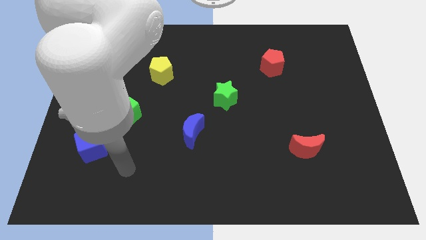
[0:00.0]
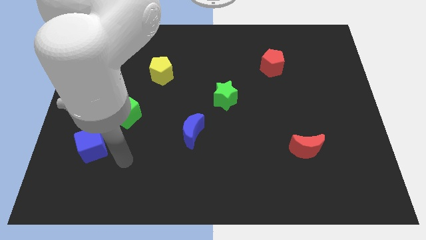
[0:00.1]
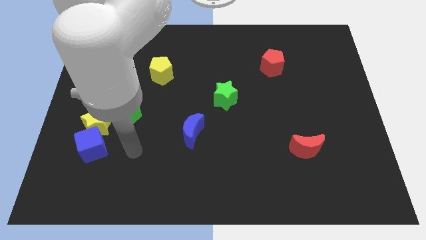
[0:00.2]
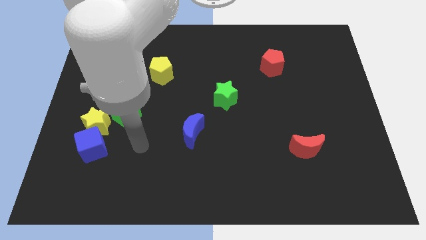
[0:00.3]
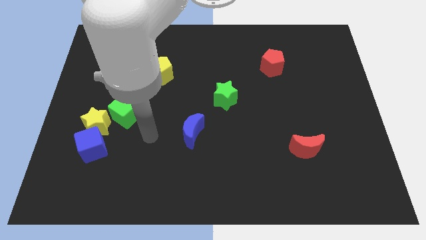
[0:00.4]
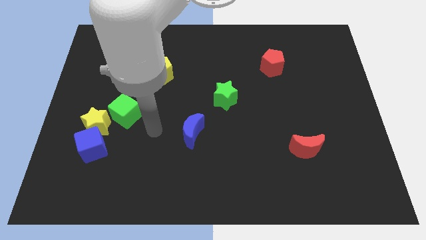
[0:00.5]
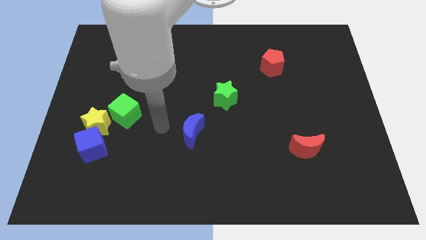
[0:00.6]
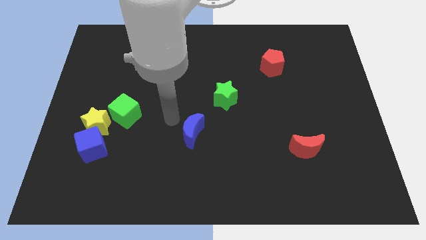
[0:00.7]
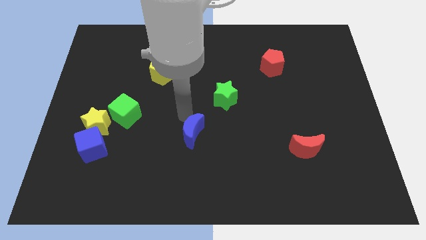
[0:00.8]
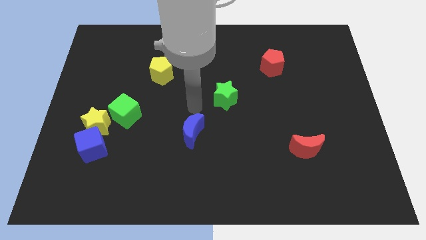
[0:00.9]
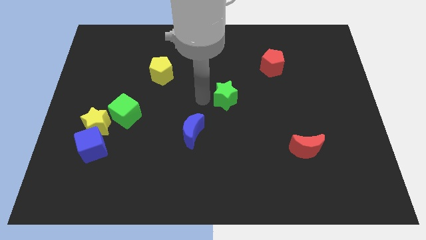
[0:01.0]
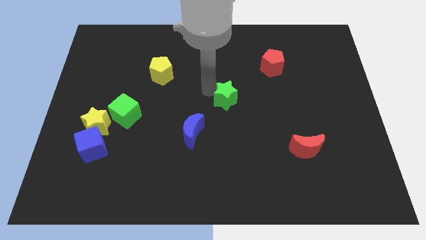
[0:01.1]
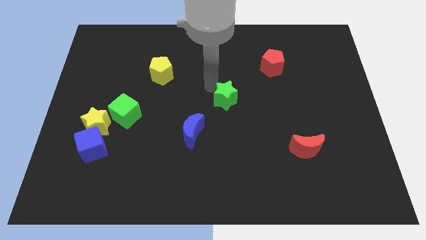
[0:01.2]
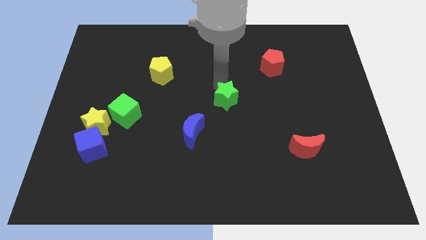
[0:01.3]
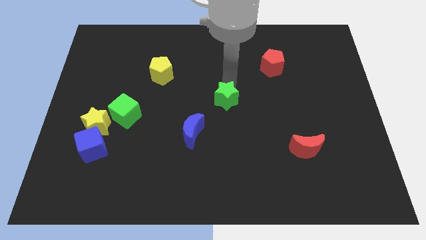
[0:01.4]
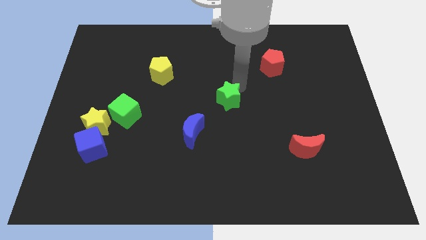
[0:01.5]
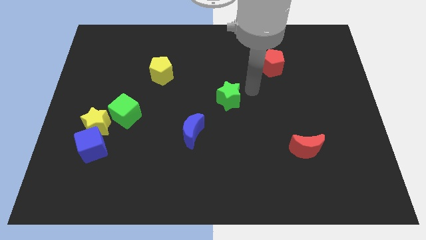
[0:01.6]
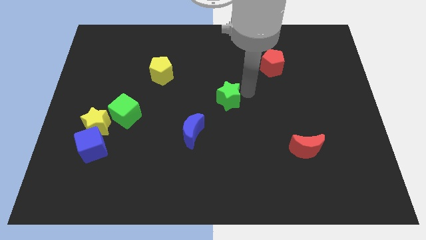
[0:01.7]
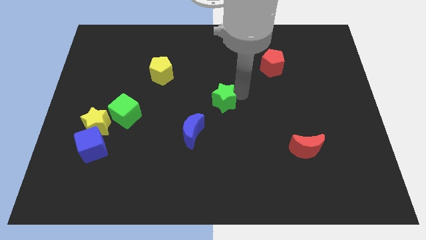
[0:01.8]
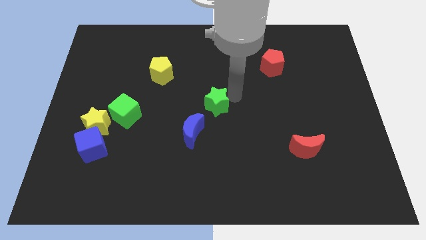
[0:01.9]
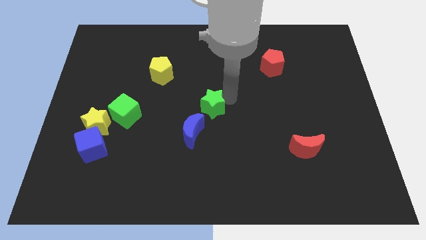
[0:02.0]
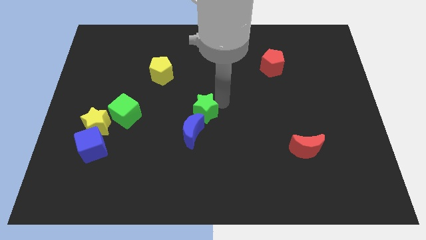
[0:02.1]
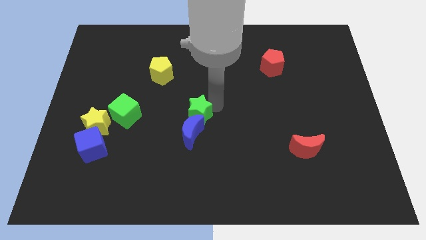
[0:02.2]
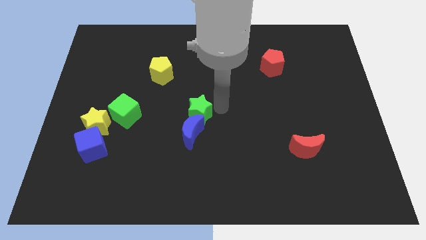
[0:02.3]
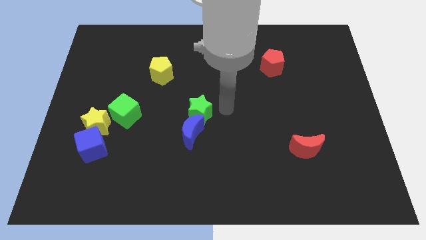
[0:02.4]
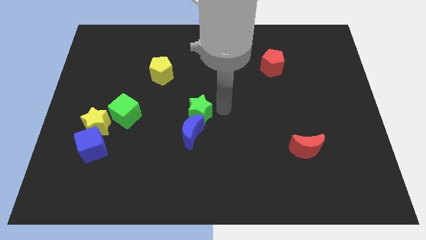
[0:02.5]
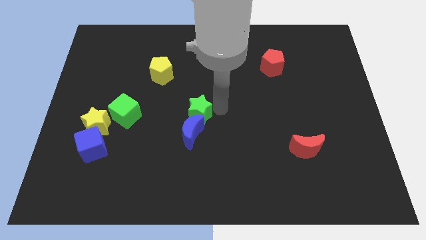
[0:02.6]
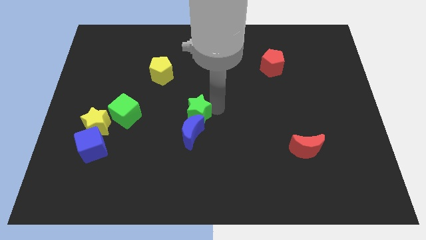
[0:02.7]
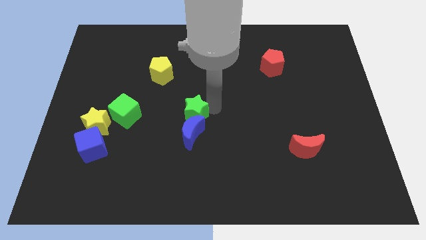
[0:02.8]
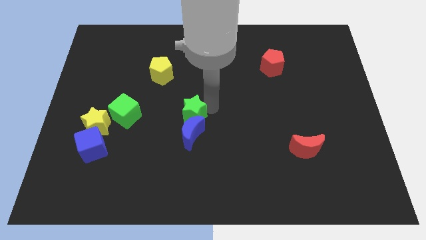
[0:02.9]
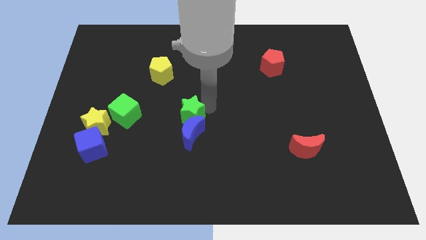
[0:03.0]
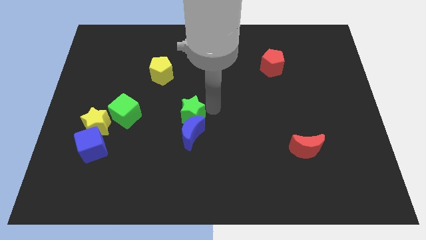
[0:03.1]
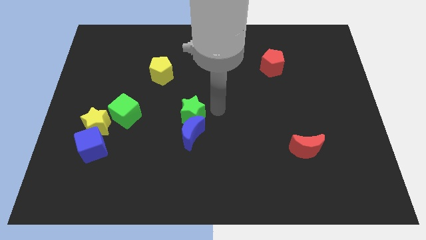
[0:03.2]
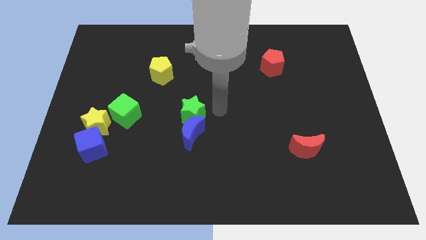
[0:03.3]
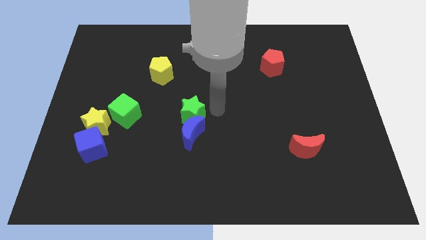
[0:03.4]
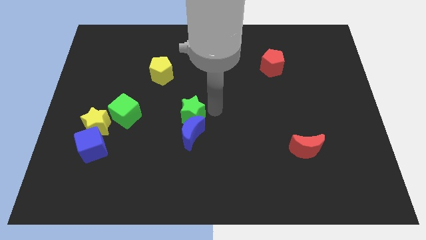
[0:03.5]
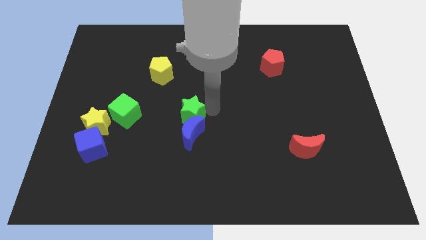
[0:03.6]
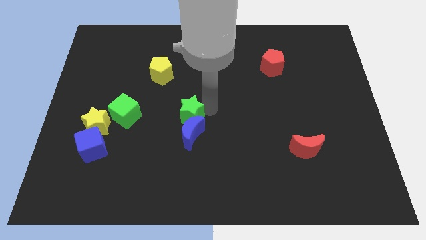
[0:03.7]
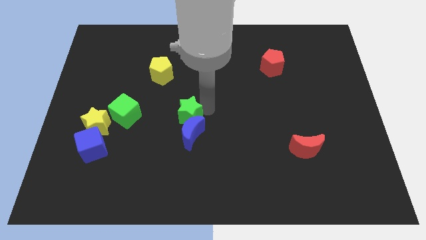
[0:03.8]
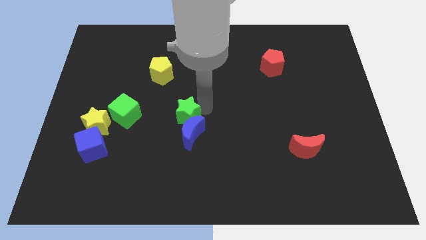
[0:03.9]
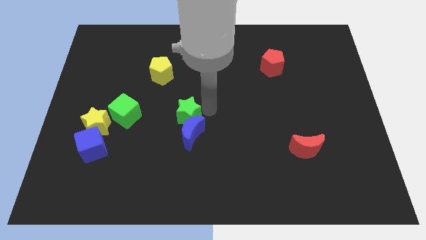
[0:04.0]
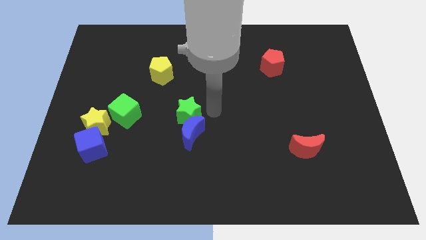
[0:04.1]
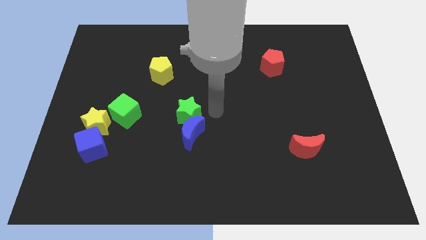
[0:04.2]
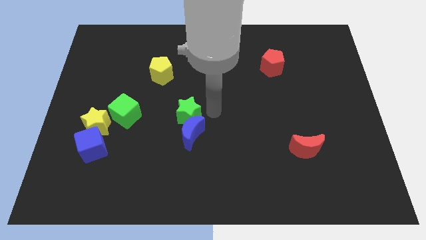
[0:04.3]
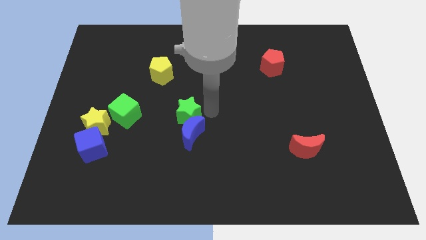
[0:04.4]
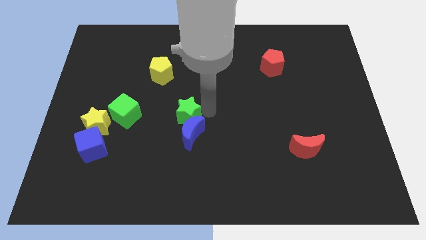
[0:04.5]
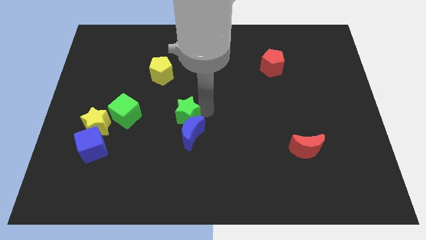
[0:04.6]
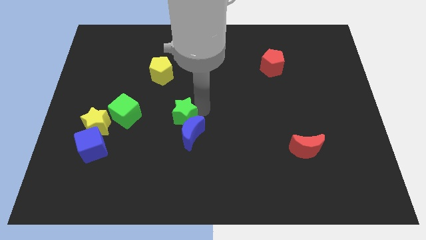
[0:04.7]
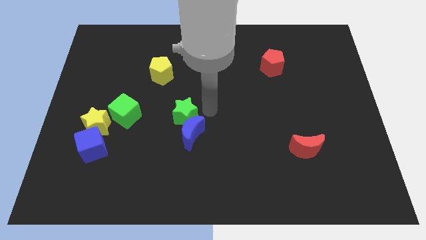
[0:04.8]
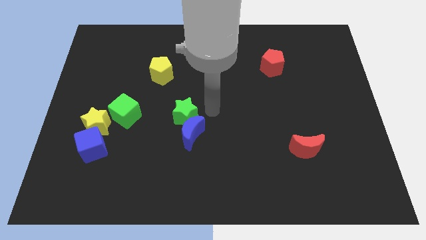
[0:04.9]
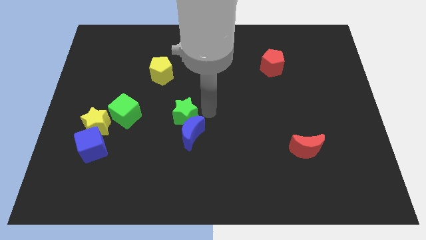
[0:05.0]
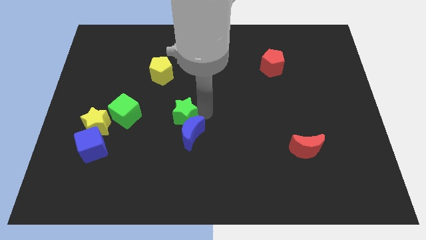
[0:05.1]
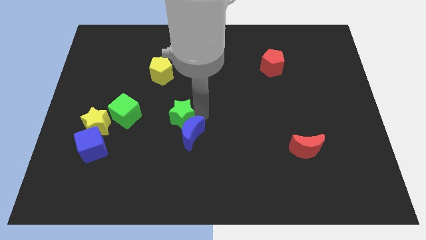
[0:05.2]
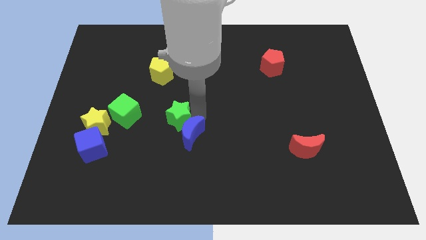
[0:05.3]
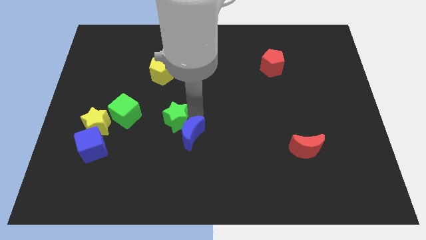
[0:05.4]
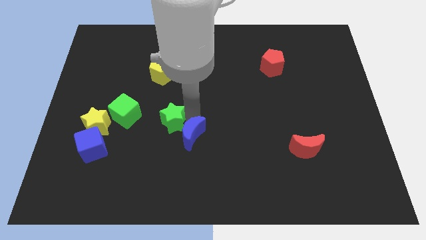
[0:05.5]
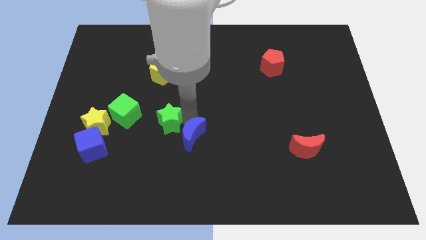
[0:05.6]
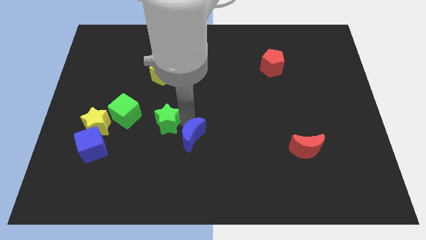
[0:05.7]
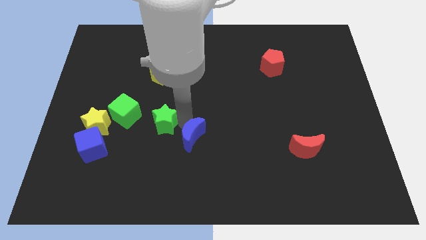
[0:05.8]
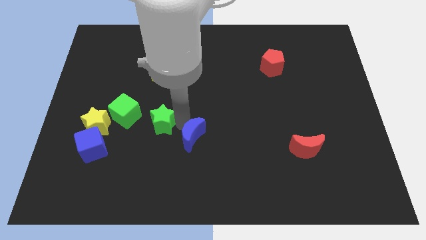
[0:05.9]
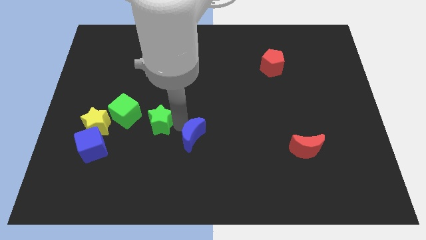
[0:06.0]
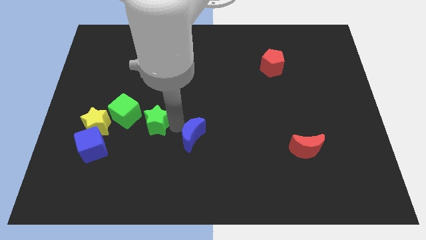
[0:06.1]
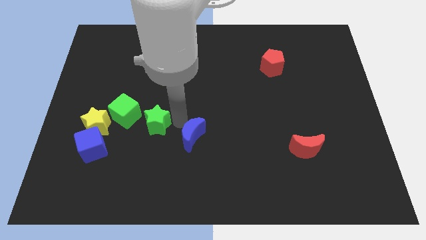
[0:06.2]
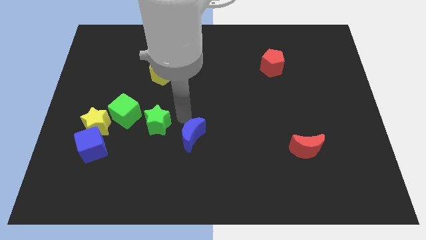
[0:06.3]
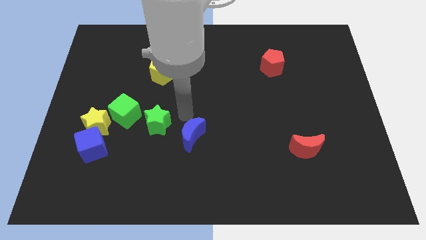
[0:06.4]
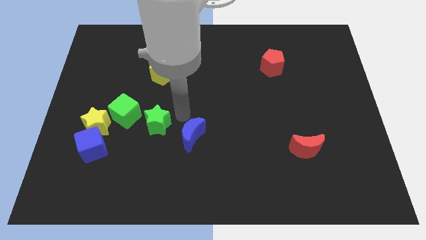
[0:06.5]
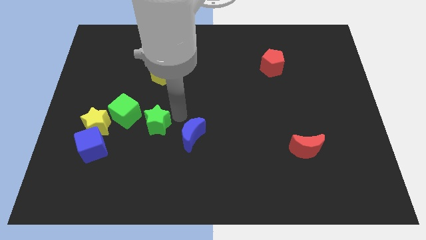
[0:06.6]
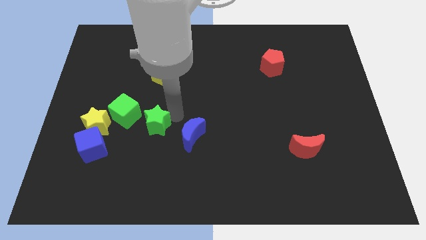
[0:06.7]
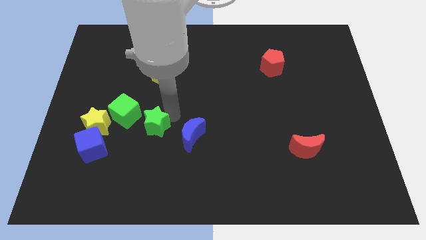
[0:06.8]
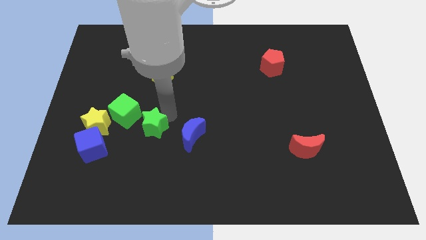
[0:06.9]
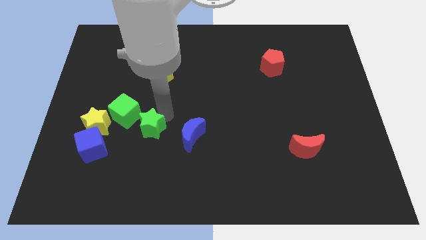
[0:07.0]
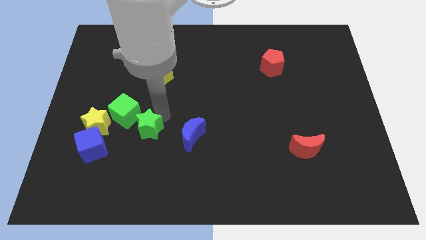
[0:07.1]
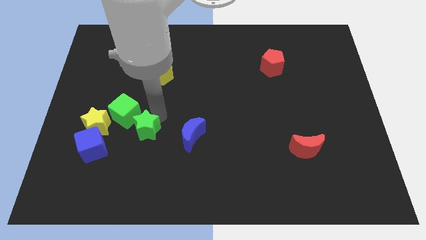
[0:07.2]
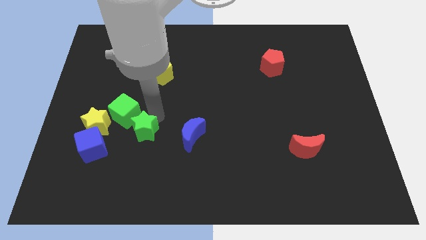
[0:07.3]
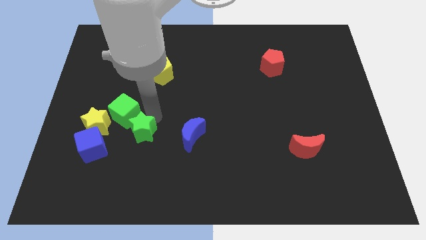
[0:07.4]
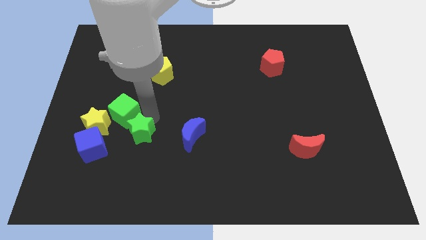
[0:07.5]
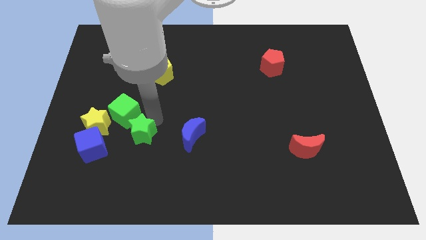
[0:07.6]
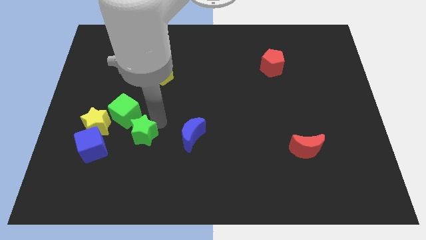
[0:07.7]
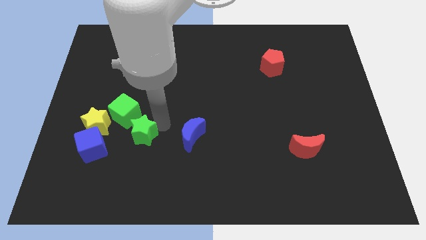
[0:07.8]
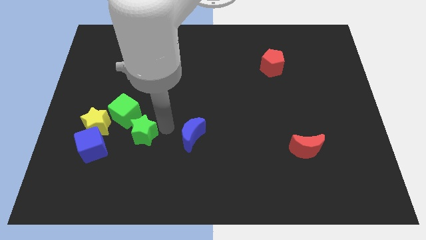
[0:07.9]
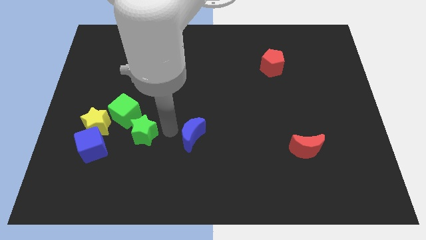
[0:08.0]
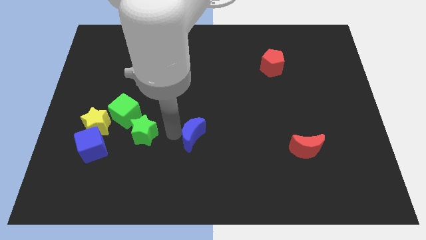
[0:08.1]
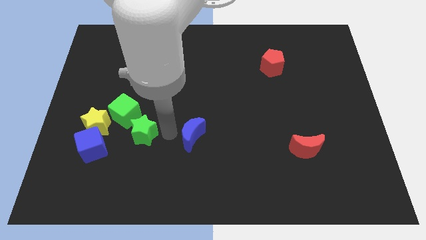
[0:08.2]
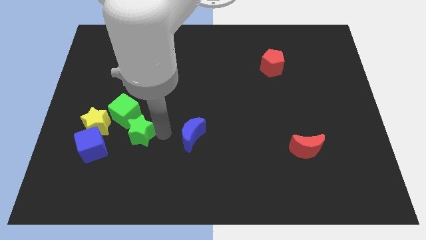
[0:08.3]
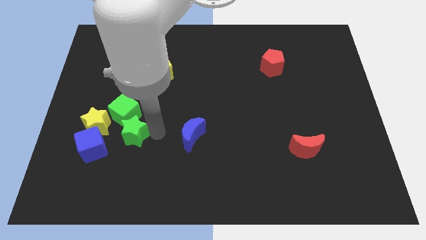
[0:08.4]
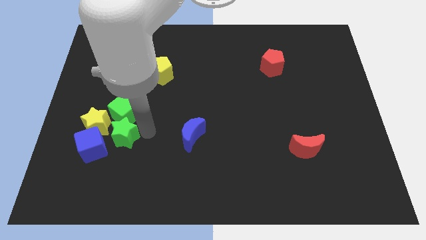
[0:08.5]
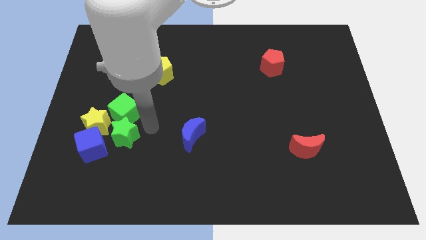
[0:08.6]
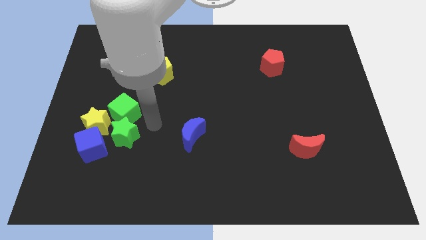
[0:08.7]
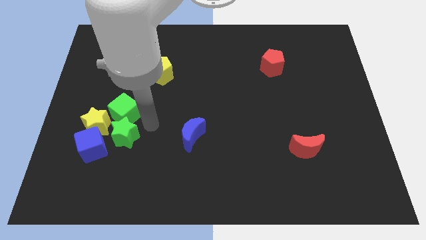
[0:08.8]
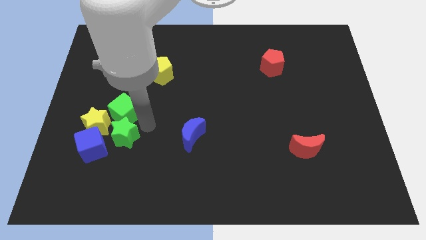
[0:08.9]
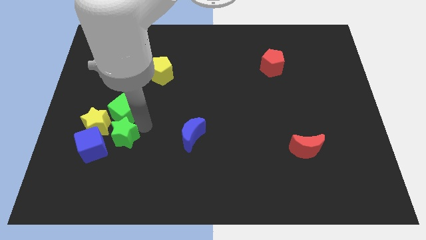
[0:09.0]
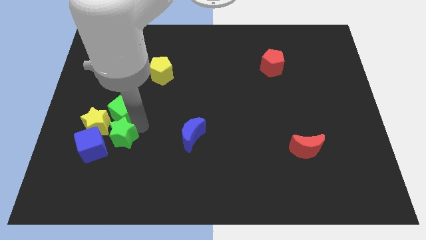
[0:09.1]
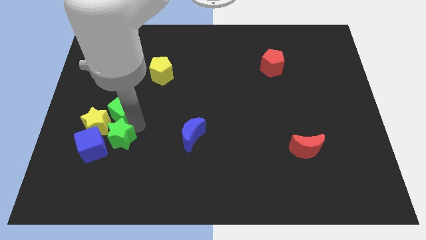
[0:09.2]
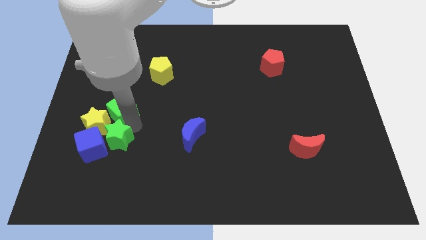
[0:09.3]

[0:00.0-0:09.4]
push the green star next to the blue cube
